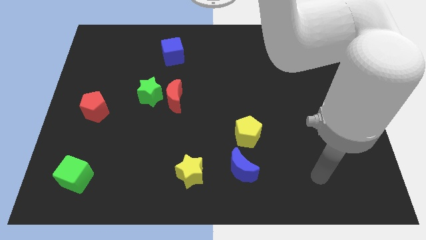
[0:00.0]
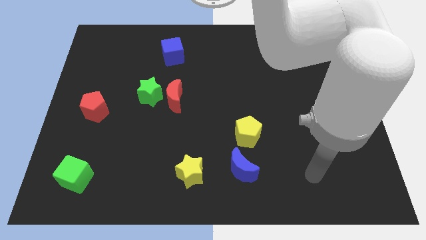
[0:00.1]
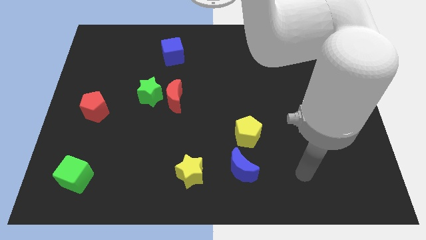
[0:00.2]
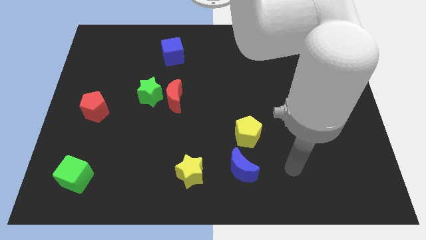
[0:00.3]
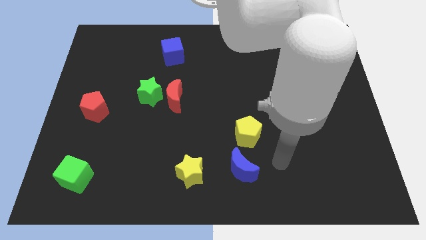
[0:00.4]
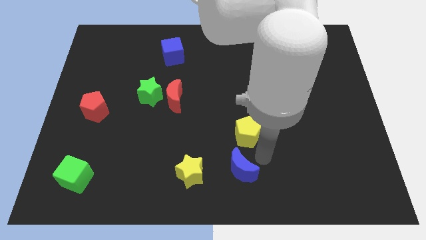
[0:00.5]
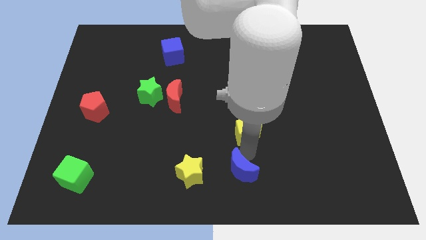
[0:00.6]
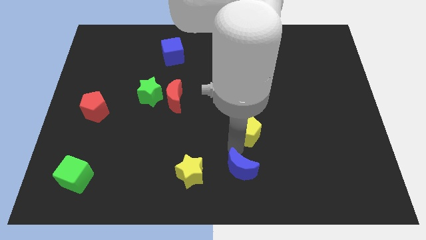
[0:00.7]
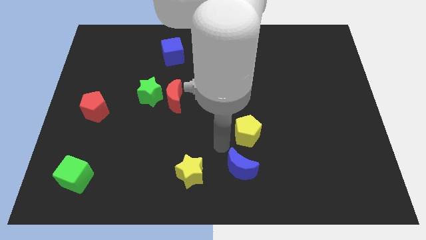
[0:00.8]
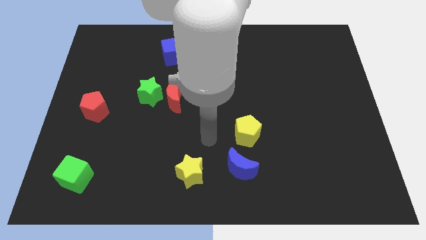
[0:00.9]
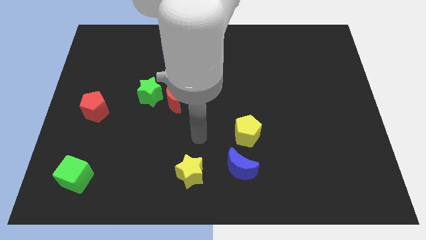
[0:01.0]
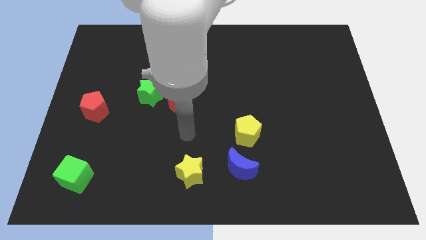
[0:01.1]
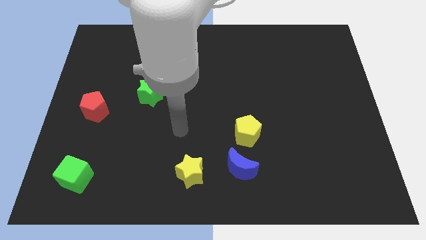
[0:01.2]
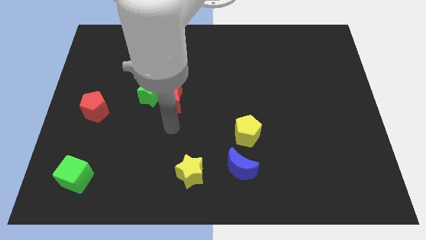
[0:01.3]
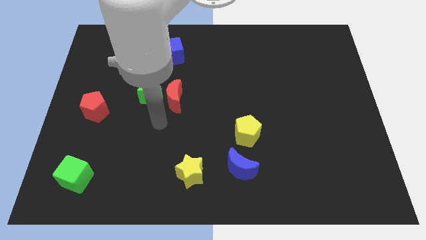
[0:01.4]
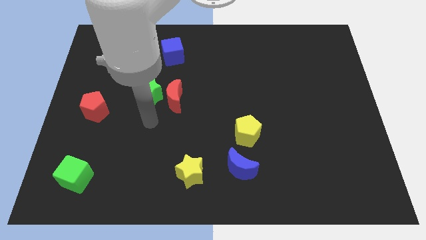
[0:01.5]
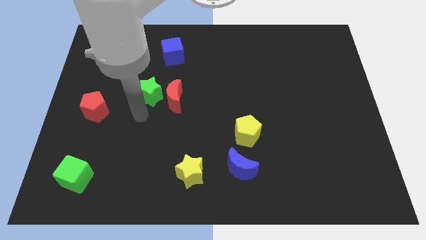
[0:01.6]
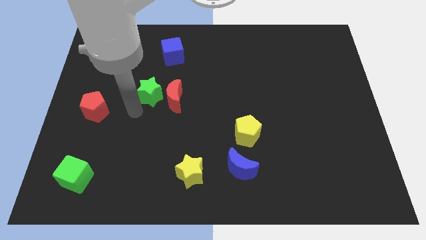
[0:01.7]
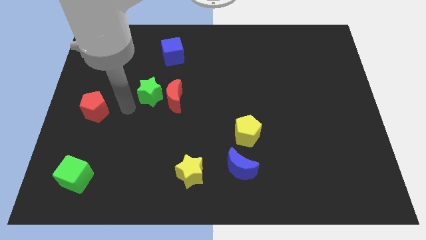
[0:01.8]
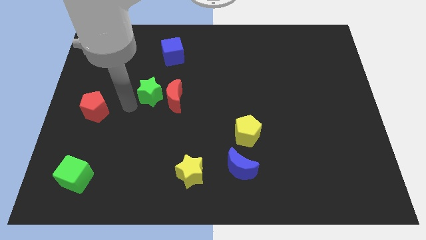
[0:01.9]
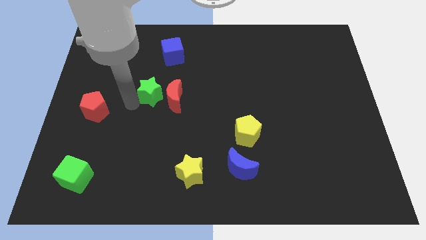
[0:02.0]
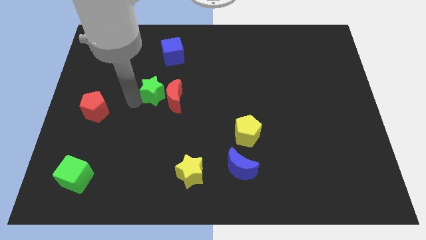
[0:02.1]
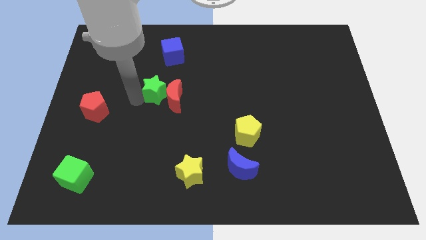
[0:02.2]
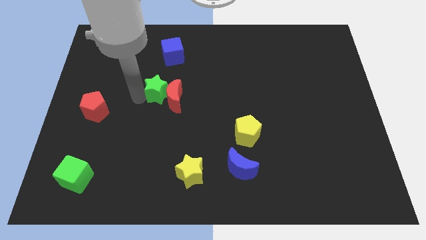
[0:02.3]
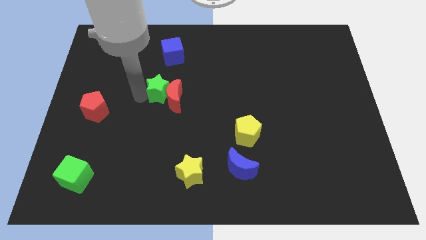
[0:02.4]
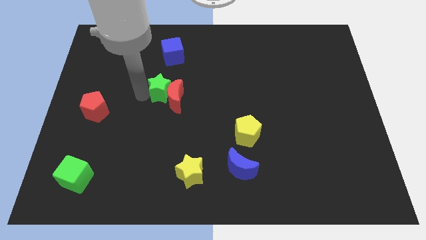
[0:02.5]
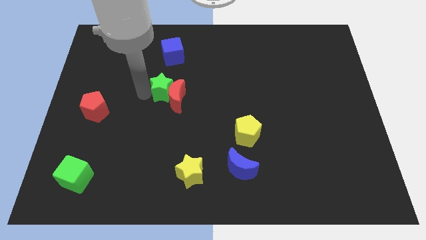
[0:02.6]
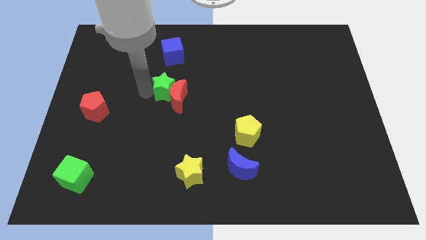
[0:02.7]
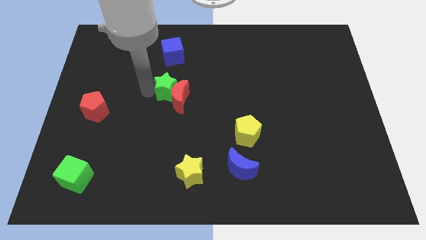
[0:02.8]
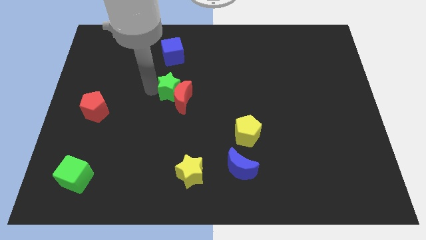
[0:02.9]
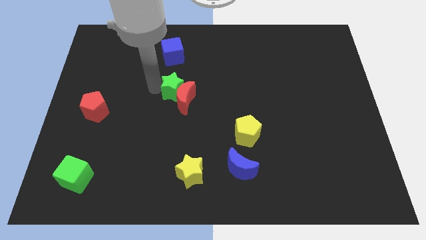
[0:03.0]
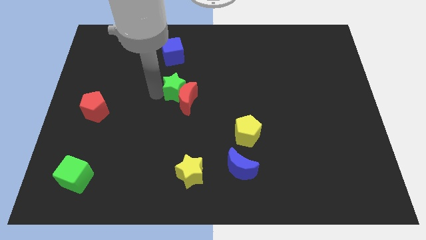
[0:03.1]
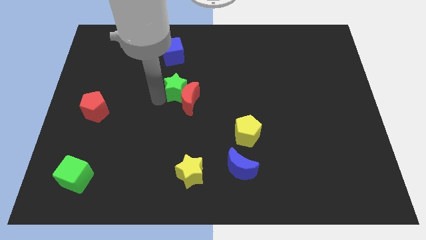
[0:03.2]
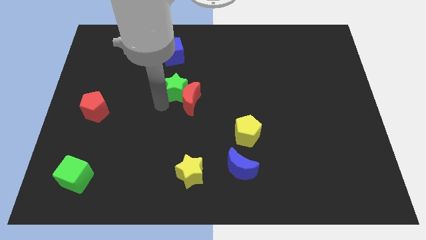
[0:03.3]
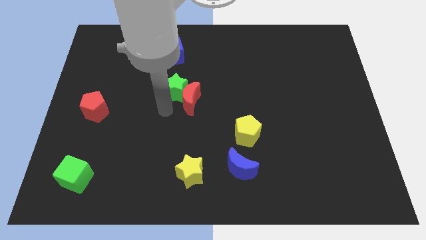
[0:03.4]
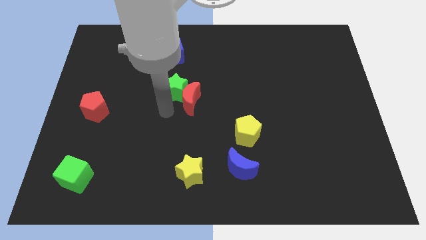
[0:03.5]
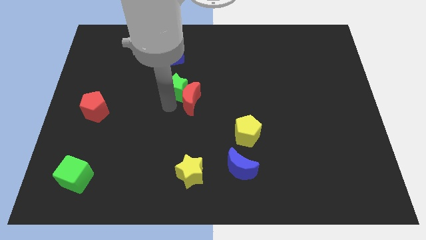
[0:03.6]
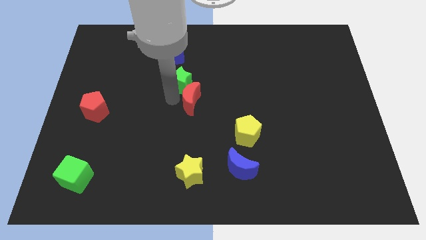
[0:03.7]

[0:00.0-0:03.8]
push the green star a bit diagonally upwards and right

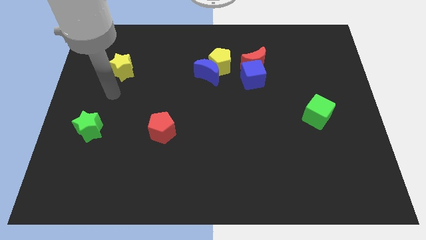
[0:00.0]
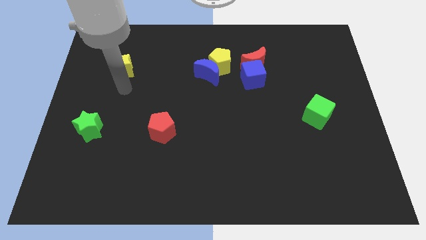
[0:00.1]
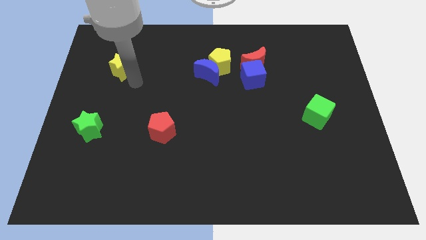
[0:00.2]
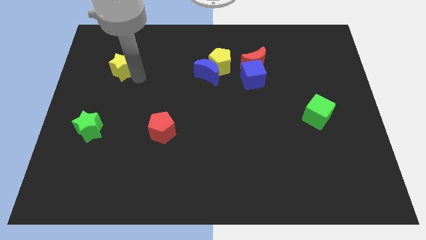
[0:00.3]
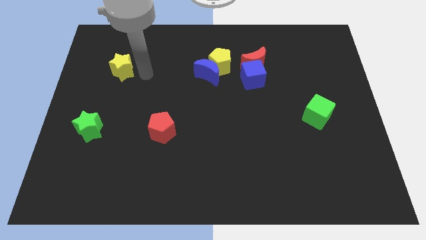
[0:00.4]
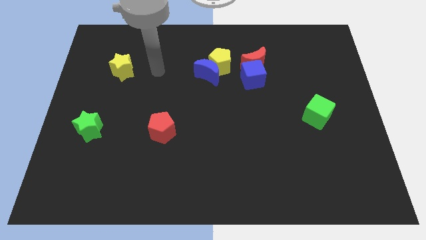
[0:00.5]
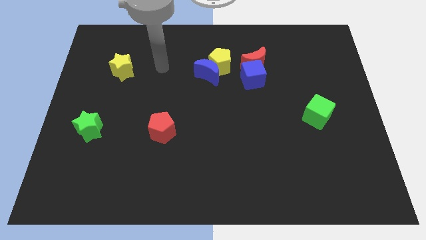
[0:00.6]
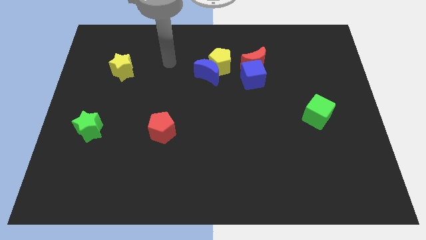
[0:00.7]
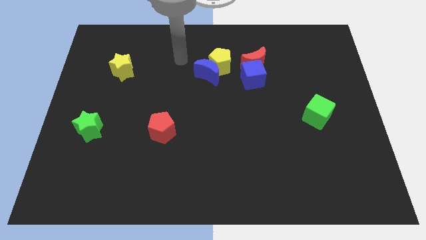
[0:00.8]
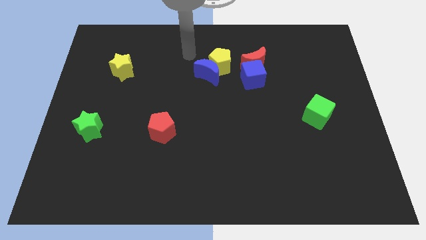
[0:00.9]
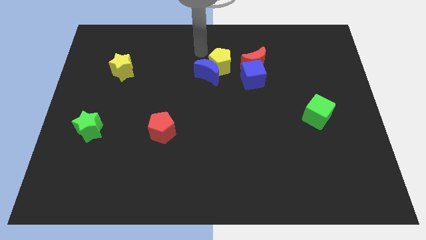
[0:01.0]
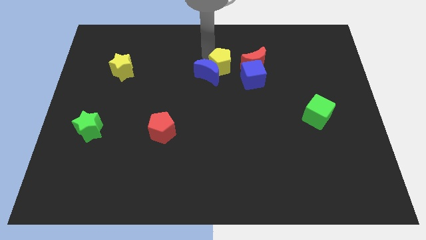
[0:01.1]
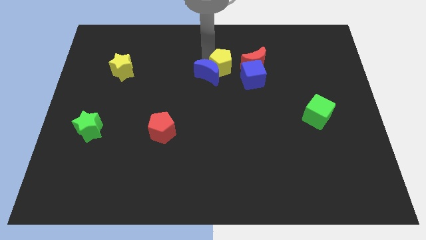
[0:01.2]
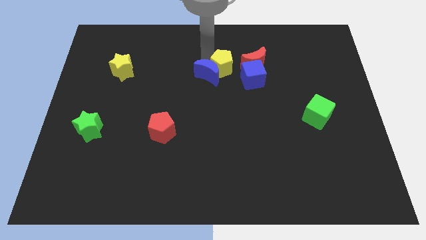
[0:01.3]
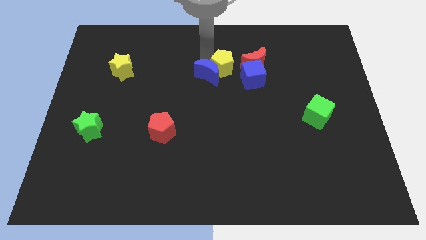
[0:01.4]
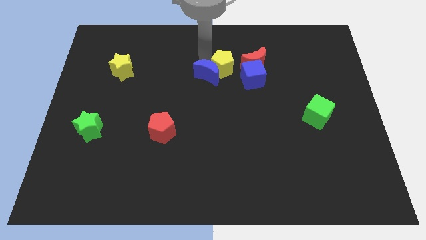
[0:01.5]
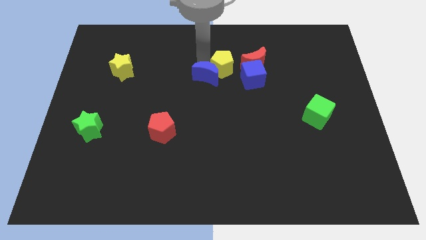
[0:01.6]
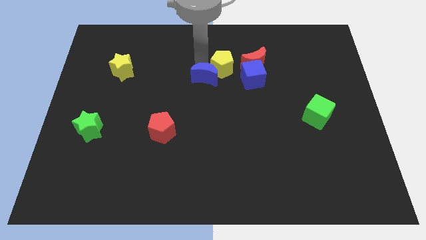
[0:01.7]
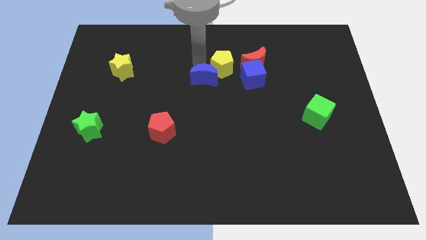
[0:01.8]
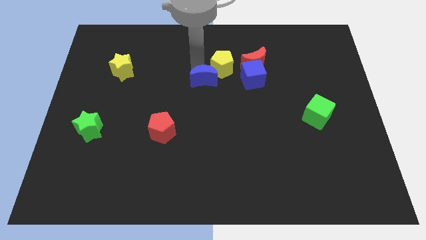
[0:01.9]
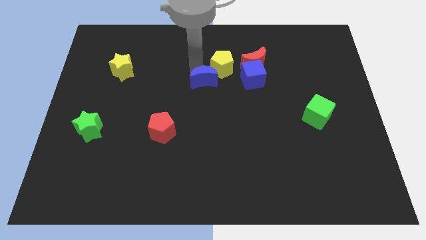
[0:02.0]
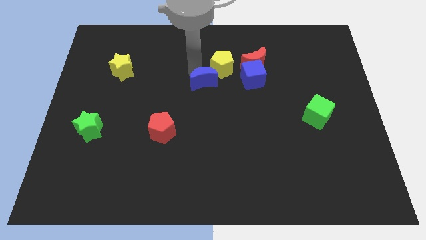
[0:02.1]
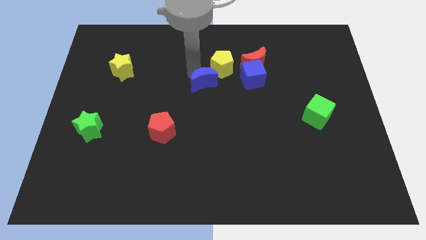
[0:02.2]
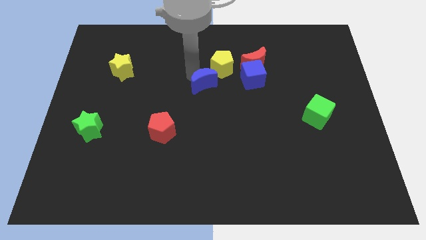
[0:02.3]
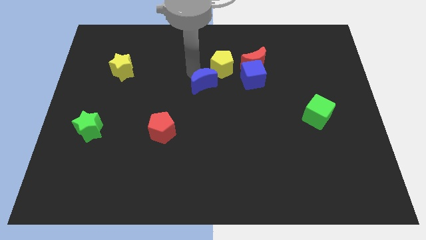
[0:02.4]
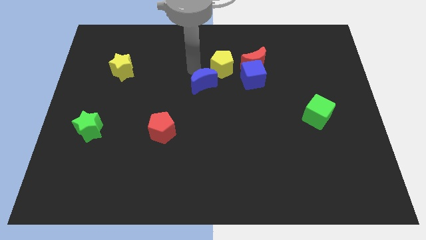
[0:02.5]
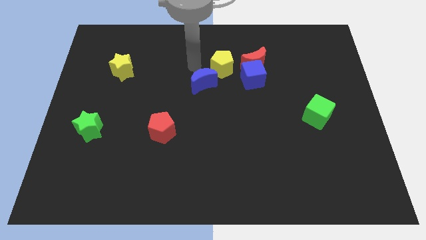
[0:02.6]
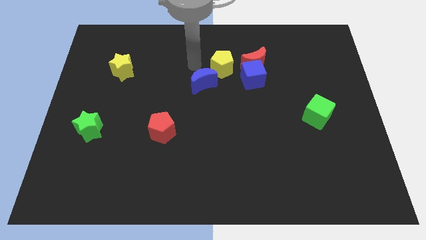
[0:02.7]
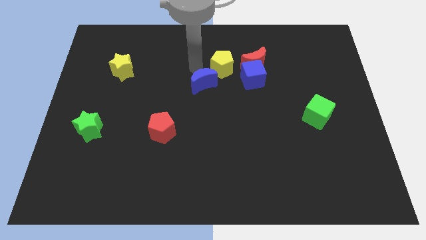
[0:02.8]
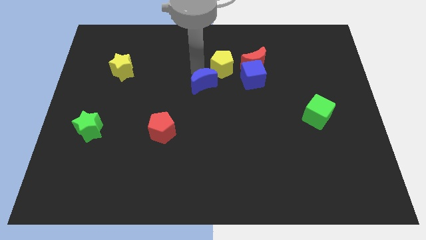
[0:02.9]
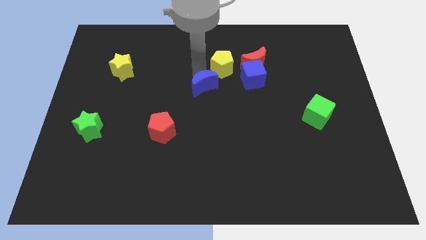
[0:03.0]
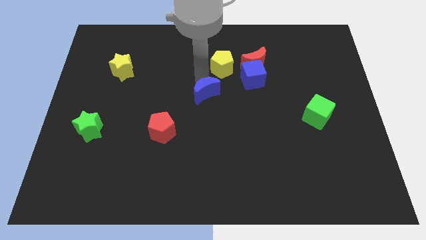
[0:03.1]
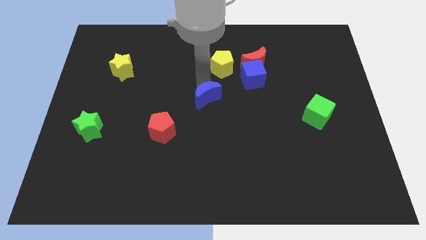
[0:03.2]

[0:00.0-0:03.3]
slightly move the blue moon downwards

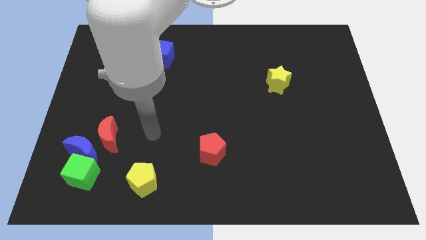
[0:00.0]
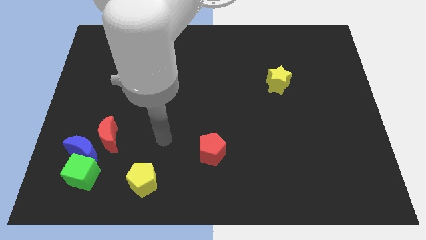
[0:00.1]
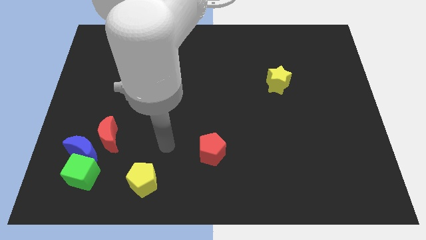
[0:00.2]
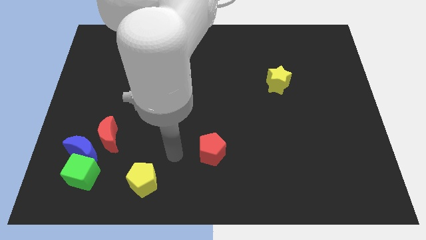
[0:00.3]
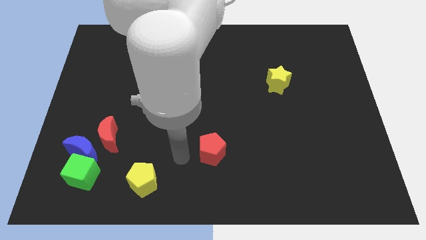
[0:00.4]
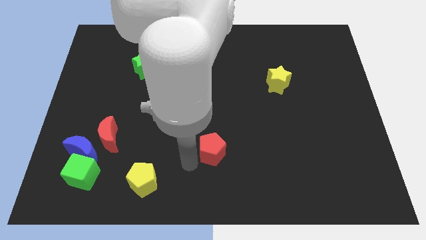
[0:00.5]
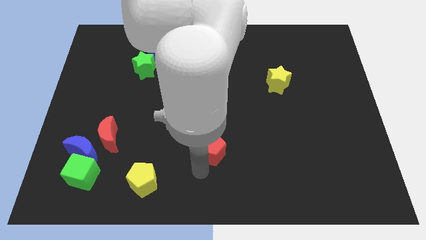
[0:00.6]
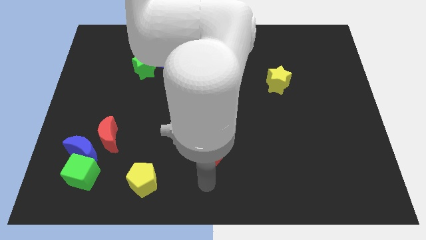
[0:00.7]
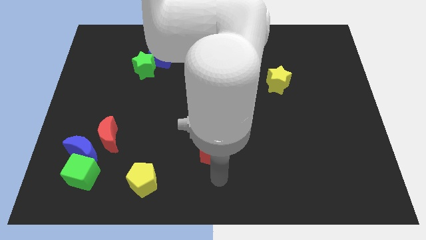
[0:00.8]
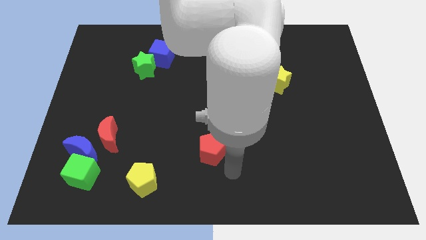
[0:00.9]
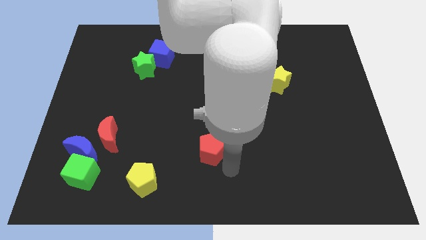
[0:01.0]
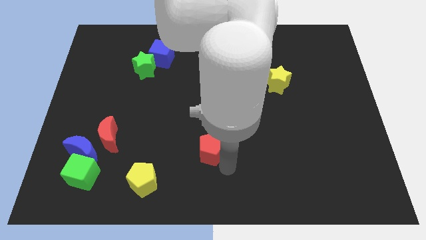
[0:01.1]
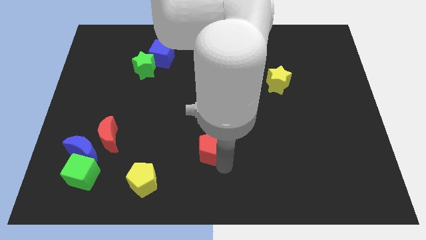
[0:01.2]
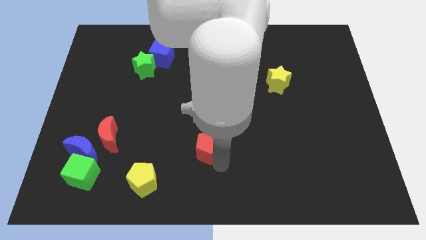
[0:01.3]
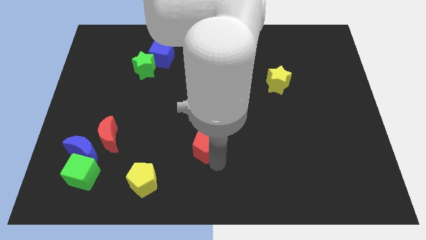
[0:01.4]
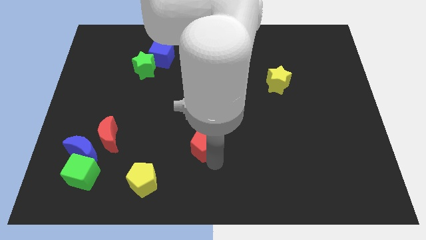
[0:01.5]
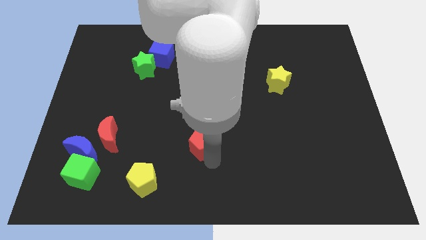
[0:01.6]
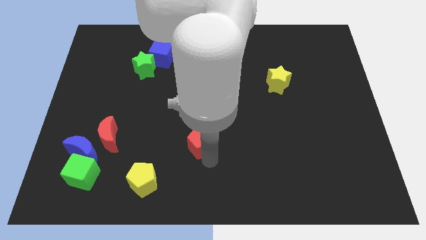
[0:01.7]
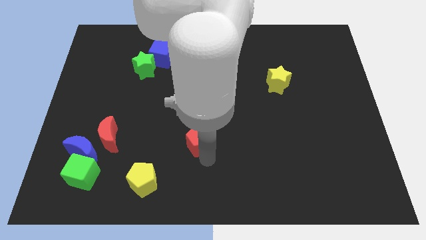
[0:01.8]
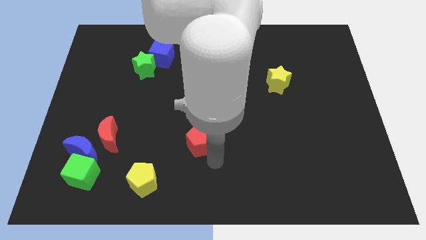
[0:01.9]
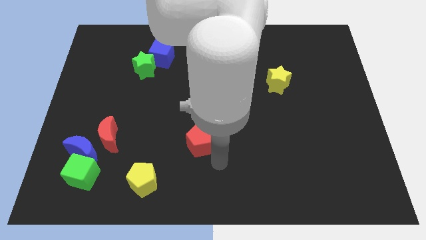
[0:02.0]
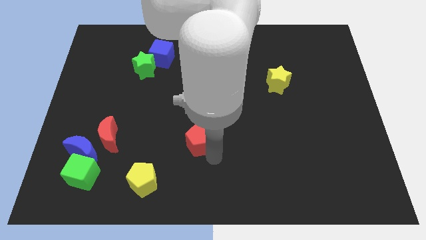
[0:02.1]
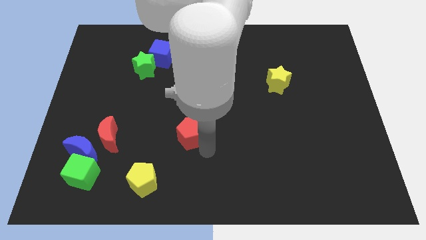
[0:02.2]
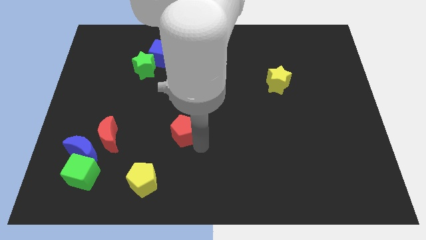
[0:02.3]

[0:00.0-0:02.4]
push the red pentagon slightly upwards and to the left diagonally
